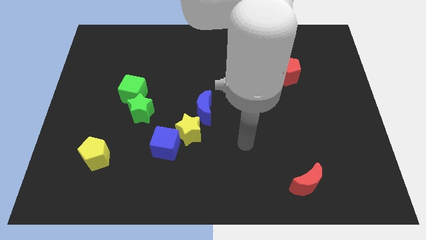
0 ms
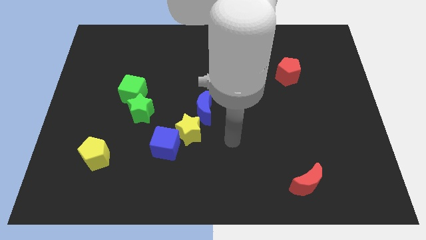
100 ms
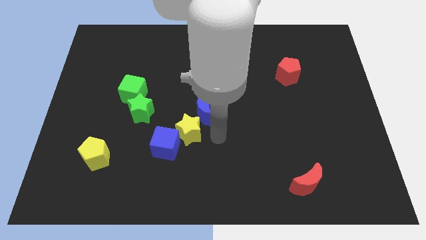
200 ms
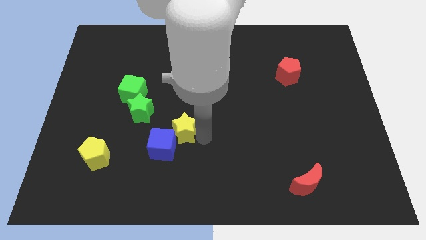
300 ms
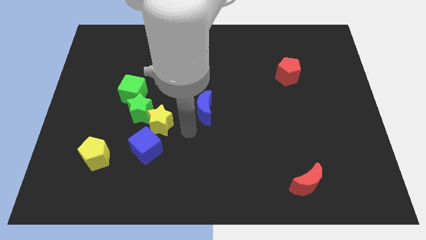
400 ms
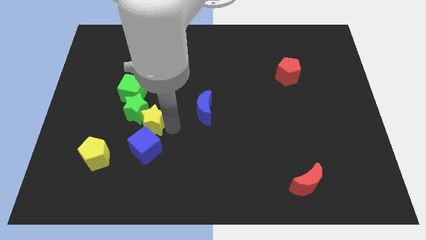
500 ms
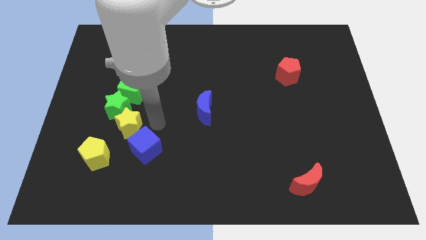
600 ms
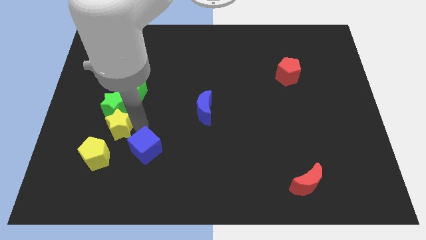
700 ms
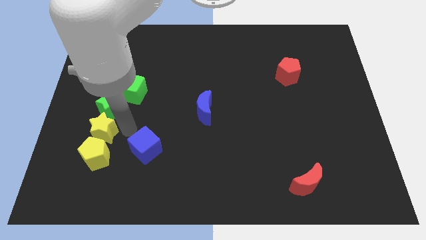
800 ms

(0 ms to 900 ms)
separate the blue cube from the yellow star

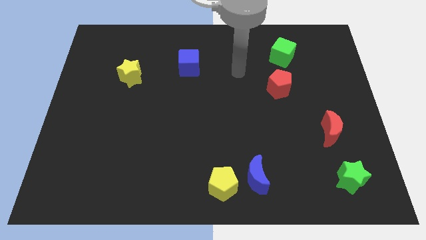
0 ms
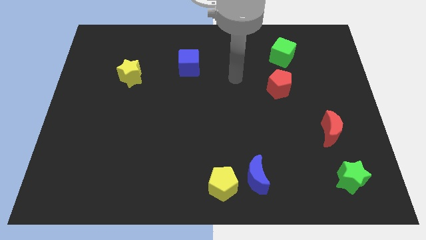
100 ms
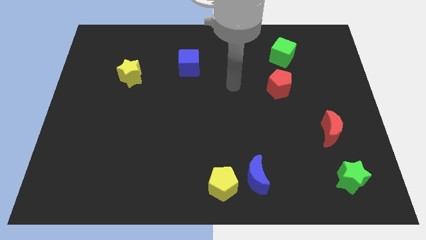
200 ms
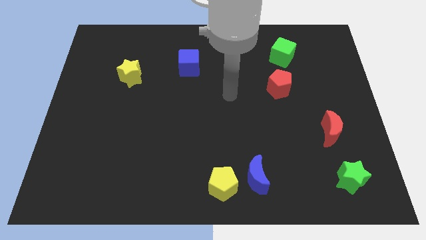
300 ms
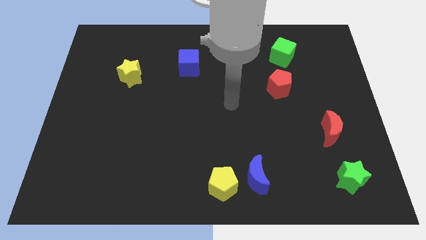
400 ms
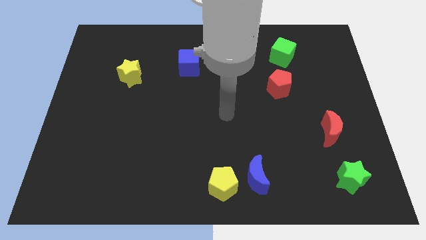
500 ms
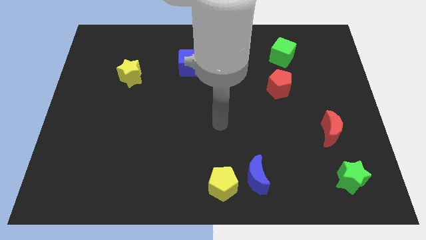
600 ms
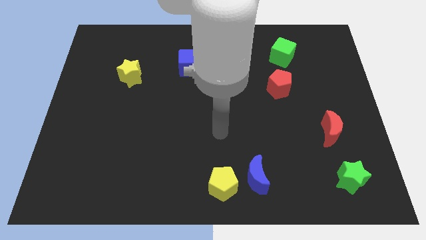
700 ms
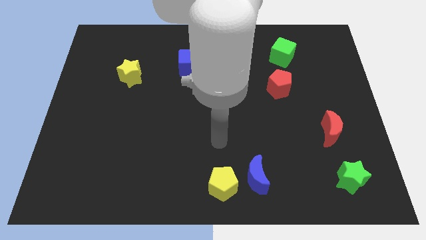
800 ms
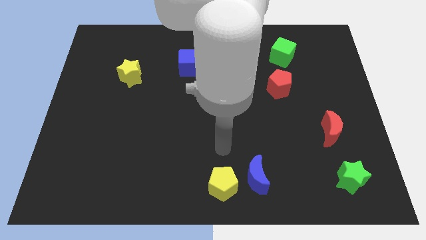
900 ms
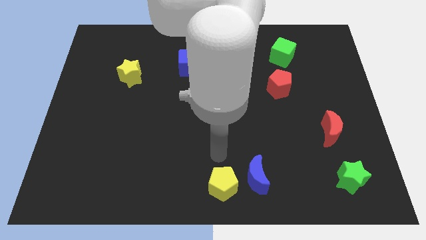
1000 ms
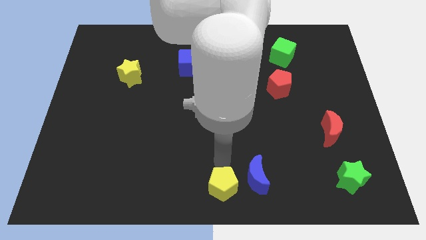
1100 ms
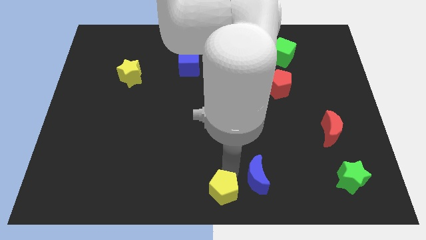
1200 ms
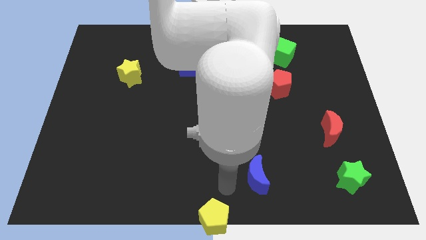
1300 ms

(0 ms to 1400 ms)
move the blue moon away from the yellow pentagon

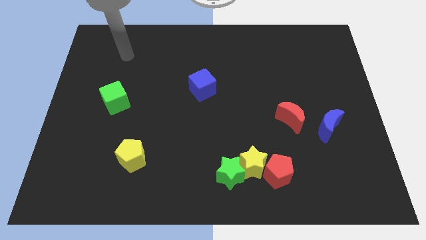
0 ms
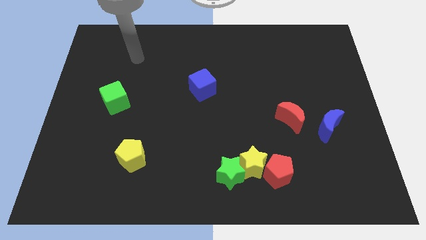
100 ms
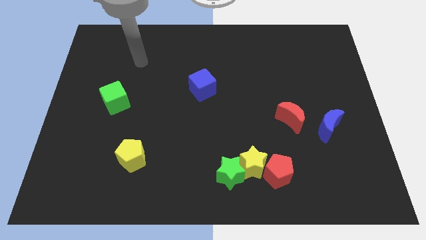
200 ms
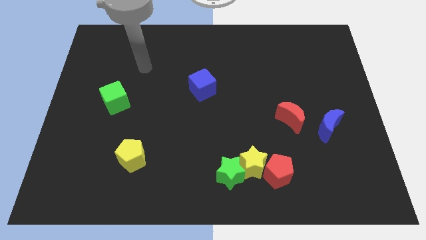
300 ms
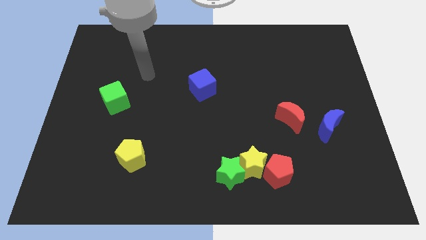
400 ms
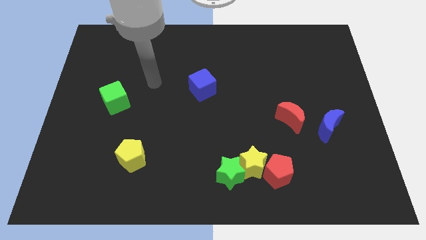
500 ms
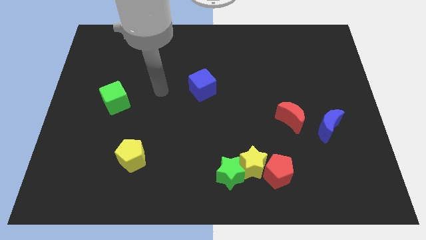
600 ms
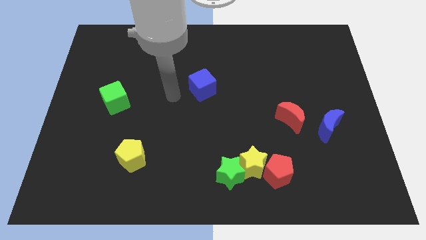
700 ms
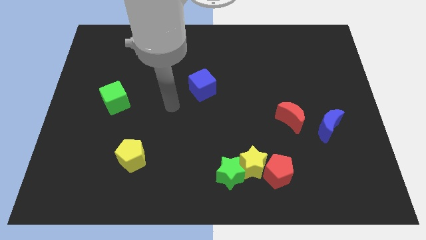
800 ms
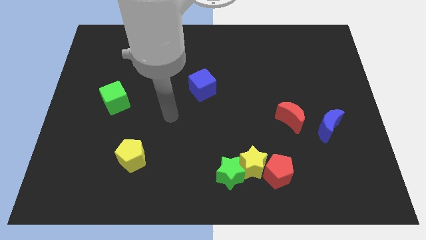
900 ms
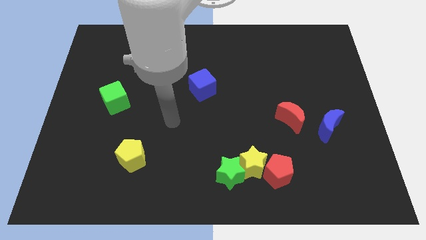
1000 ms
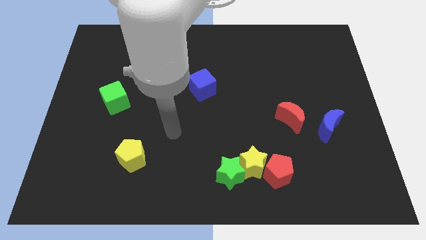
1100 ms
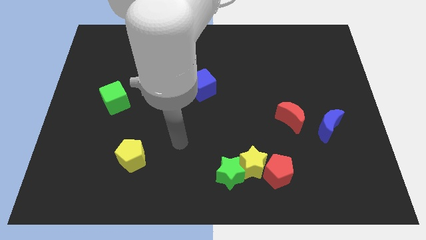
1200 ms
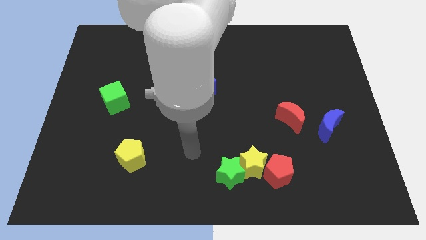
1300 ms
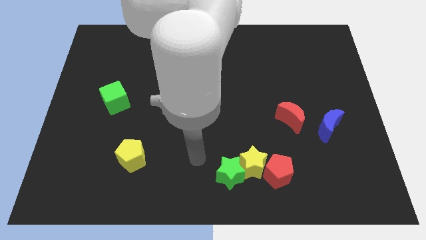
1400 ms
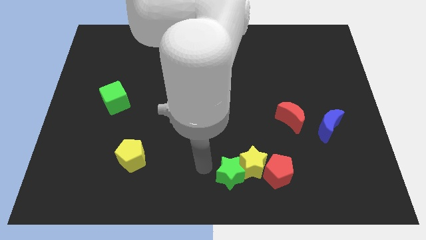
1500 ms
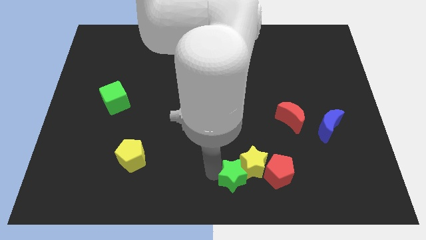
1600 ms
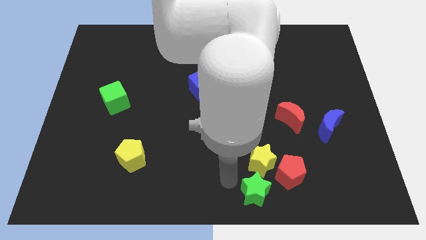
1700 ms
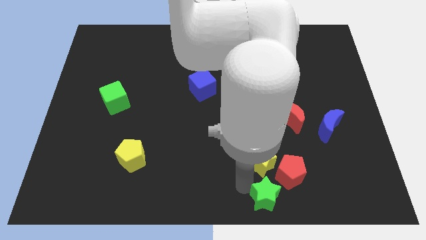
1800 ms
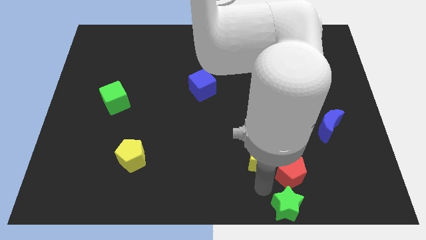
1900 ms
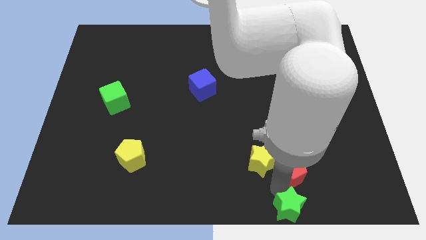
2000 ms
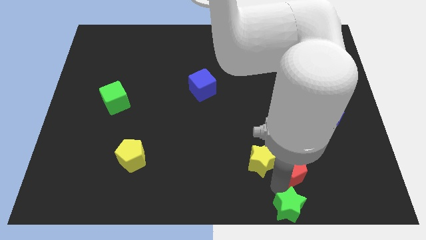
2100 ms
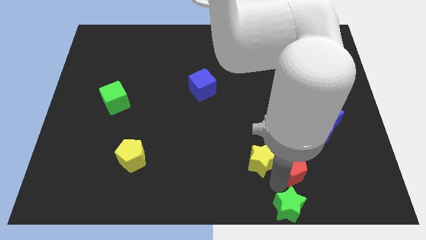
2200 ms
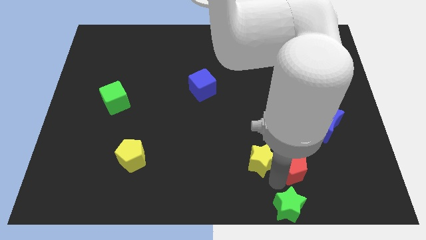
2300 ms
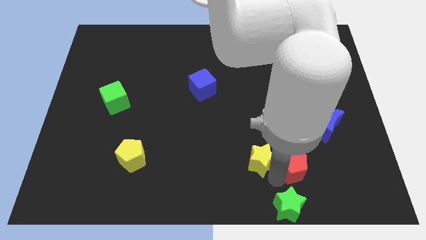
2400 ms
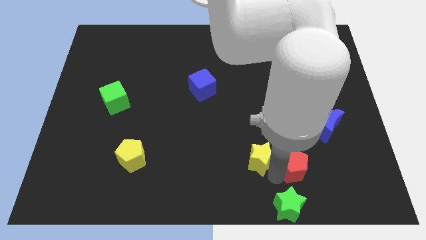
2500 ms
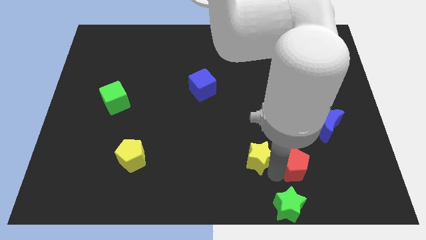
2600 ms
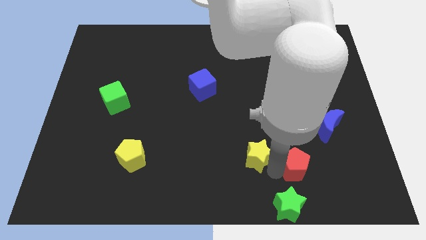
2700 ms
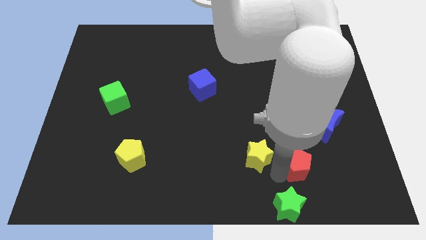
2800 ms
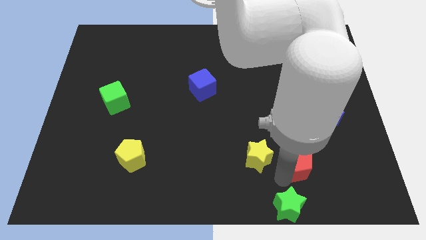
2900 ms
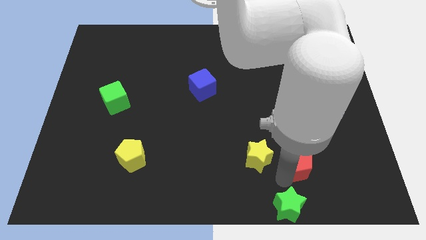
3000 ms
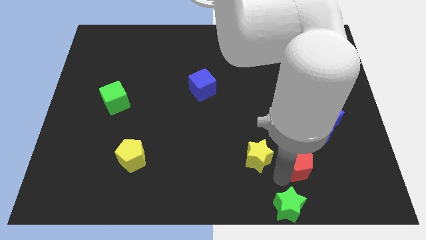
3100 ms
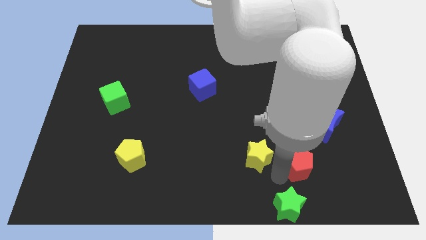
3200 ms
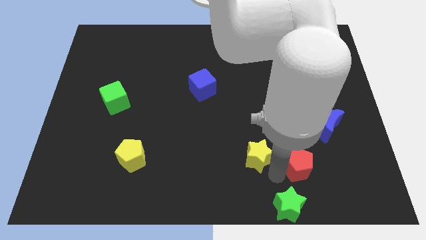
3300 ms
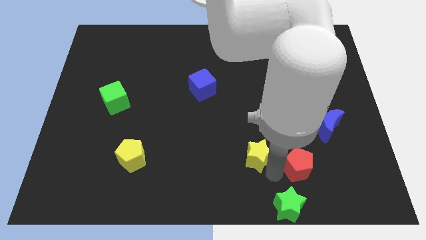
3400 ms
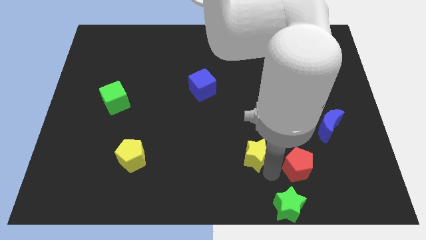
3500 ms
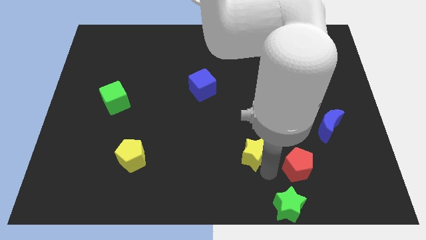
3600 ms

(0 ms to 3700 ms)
pull the yellow star apart from the red pentagon and green star

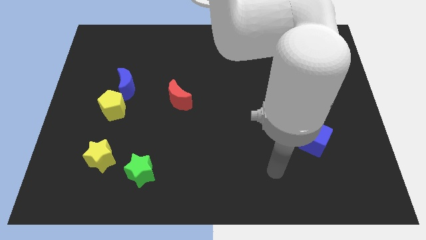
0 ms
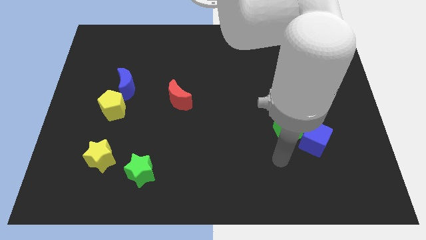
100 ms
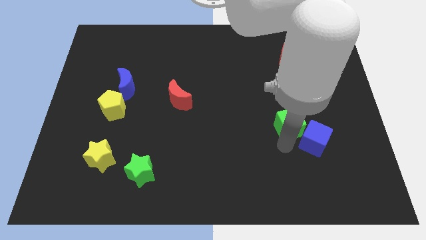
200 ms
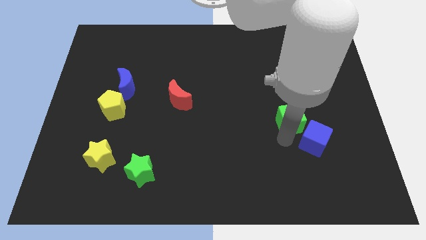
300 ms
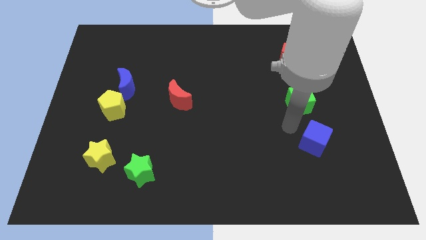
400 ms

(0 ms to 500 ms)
move the blue cube away from the green cube

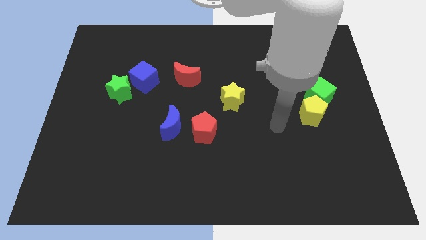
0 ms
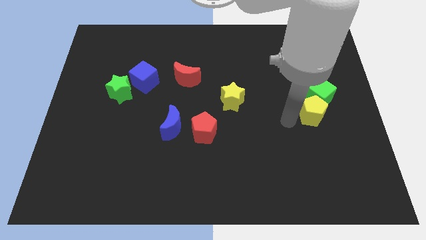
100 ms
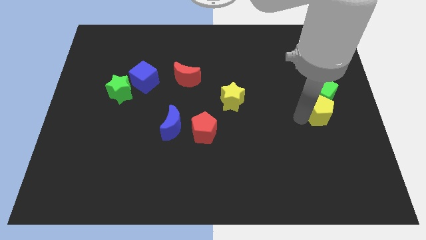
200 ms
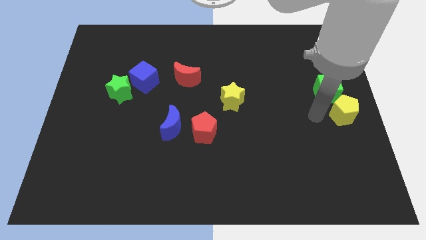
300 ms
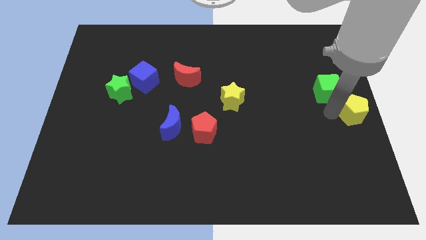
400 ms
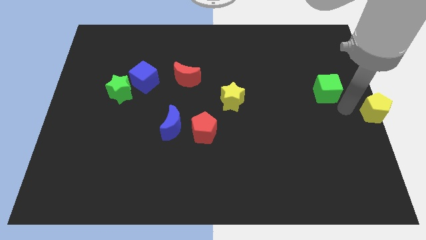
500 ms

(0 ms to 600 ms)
separate the green cube from the yellow pentagon

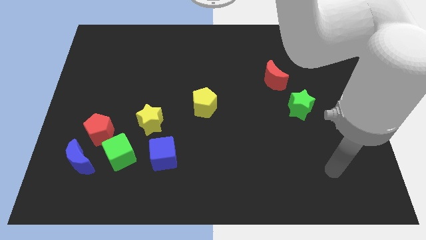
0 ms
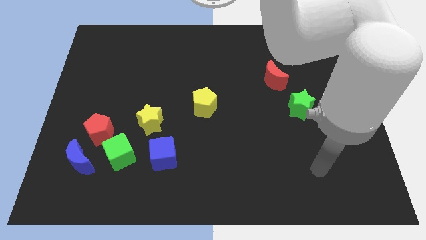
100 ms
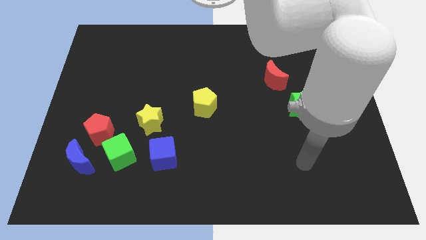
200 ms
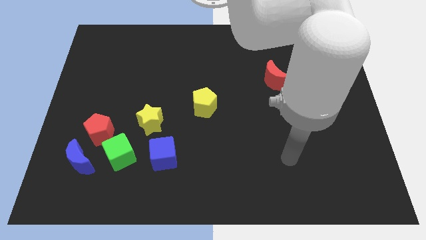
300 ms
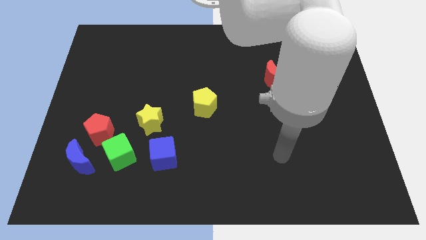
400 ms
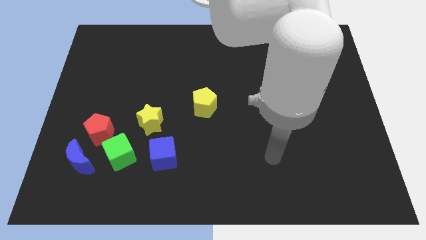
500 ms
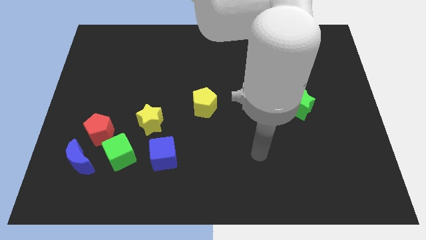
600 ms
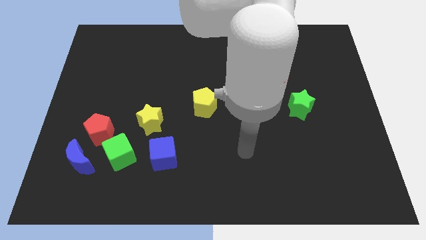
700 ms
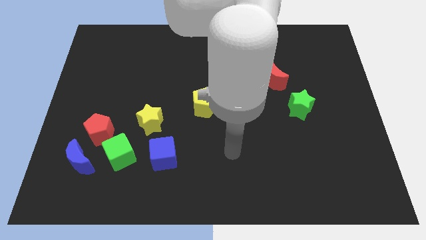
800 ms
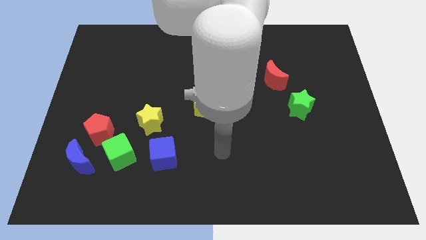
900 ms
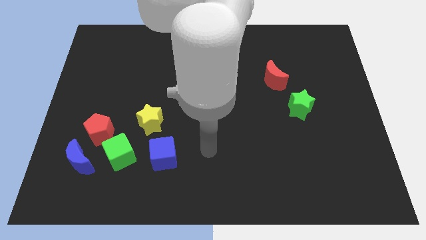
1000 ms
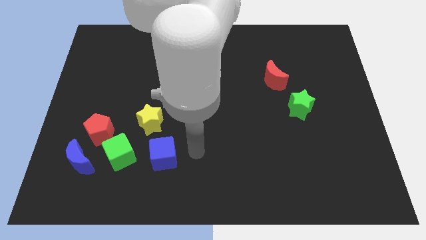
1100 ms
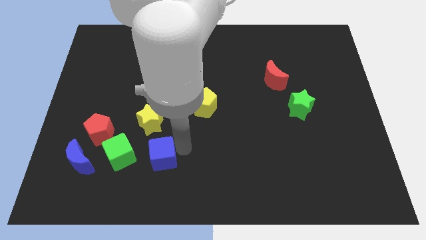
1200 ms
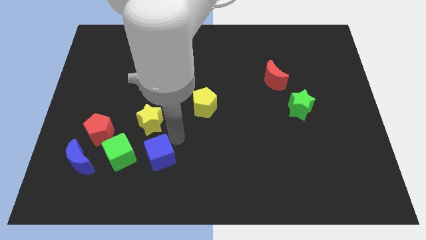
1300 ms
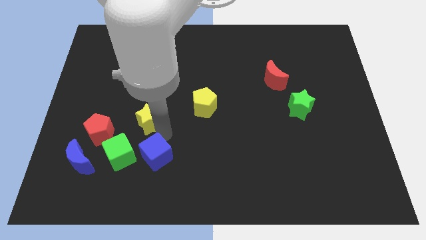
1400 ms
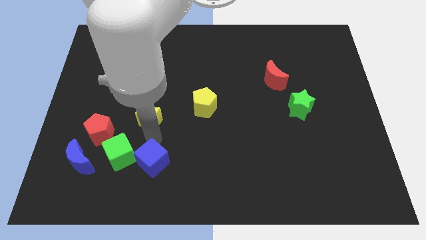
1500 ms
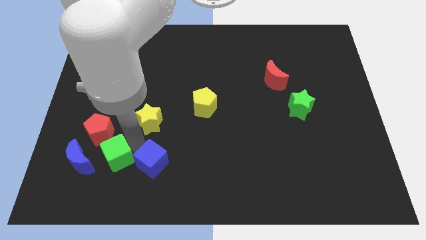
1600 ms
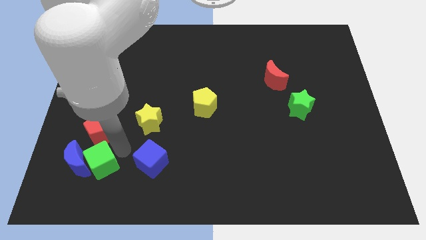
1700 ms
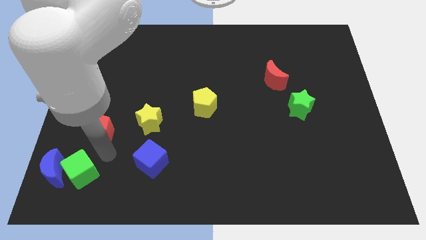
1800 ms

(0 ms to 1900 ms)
separate the red pentagon from the green cube and blue moon

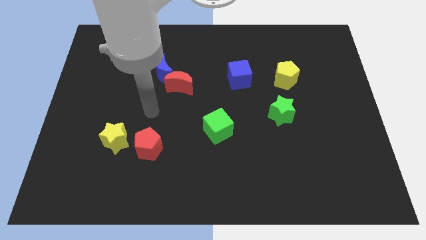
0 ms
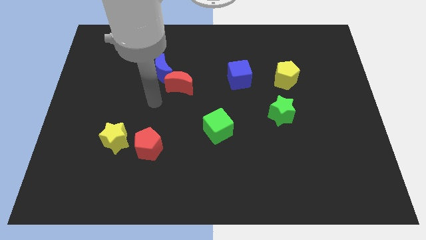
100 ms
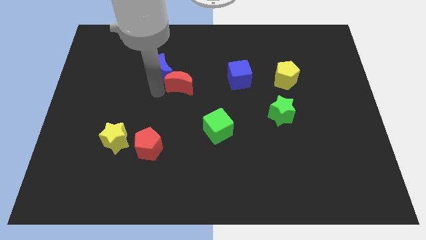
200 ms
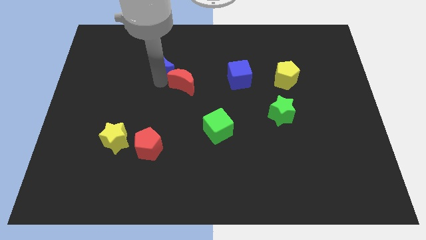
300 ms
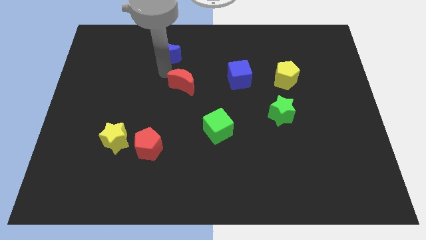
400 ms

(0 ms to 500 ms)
pull the red moon apart from the blue moon
